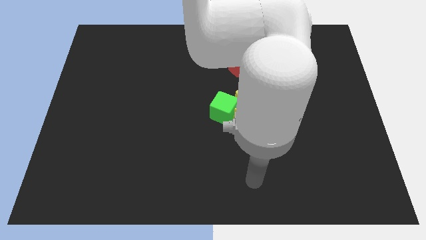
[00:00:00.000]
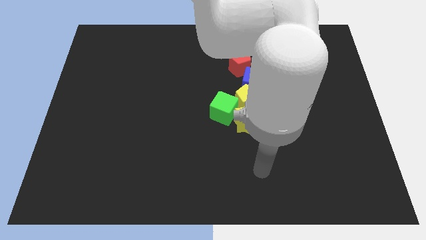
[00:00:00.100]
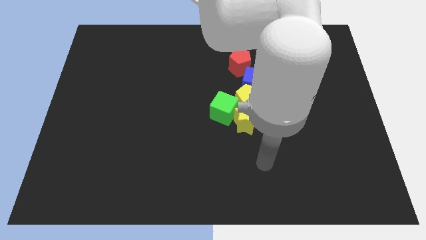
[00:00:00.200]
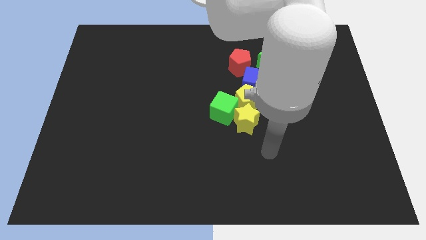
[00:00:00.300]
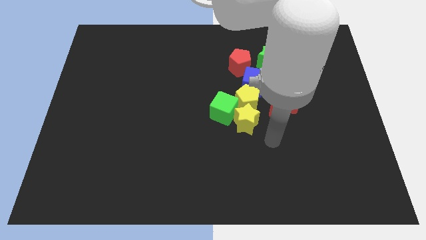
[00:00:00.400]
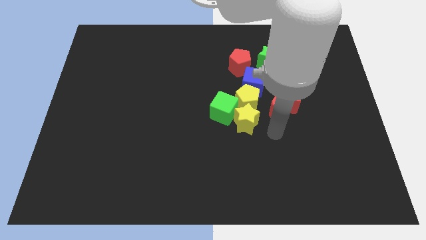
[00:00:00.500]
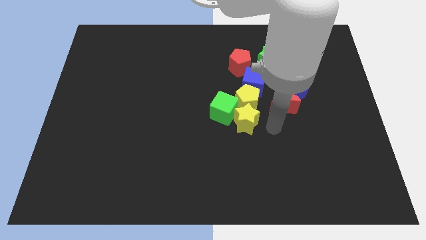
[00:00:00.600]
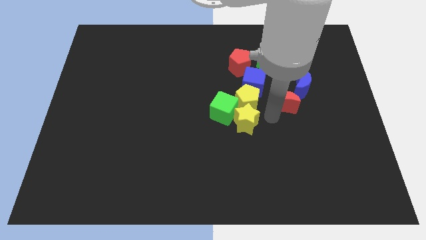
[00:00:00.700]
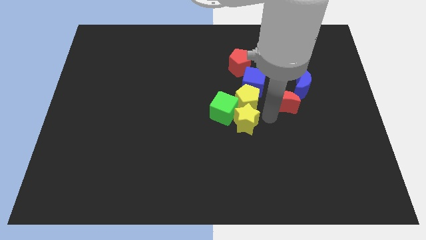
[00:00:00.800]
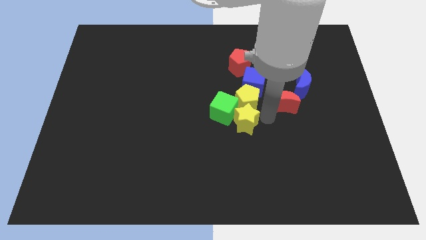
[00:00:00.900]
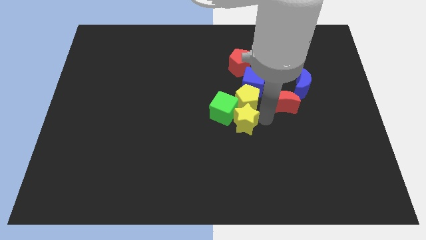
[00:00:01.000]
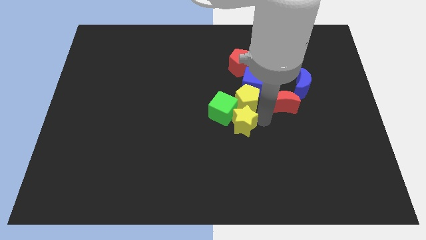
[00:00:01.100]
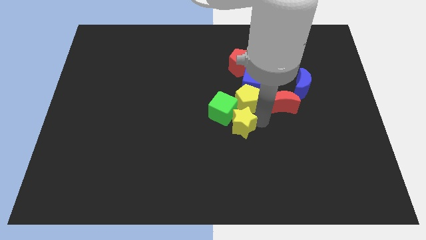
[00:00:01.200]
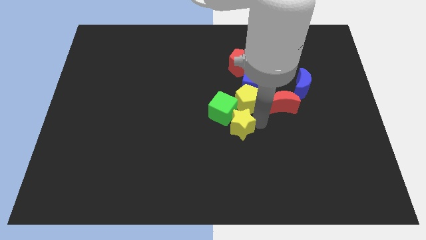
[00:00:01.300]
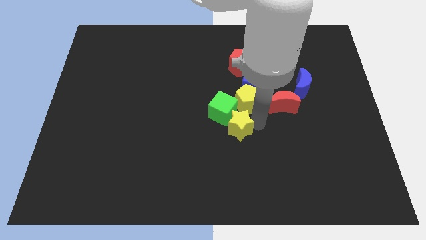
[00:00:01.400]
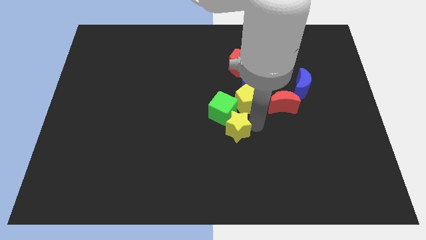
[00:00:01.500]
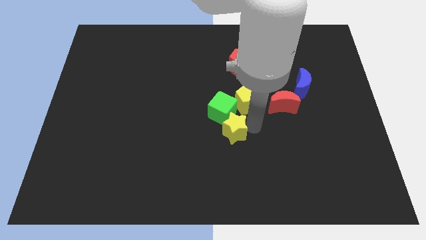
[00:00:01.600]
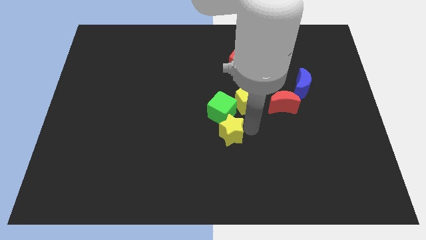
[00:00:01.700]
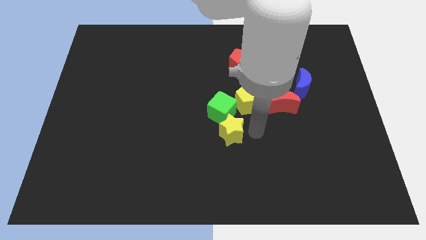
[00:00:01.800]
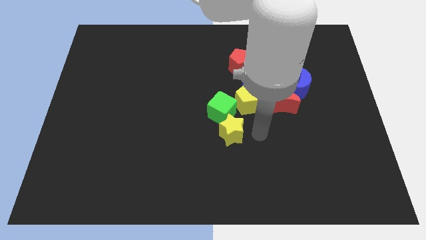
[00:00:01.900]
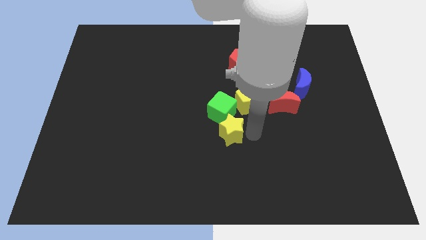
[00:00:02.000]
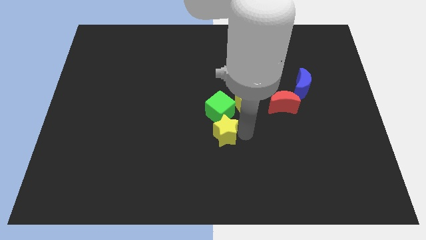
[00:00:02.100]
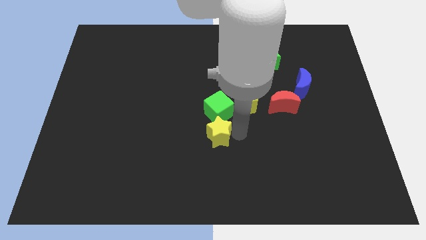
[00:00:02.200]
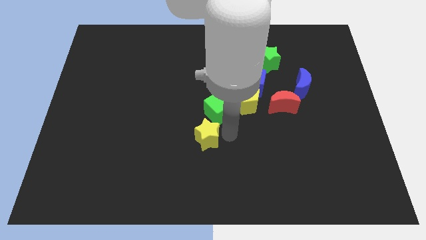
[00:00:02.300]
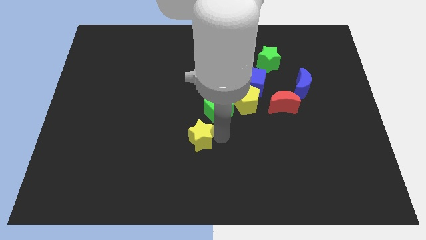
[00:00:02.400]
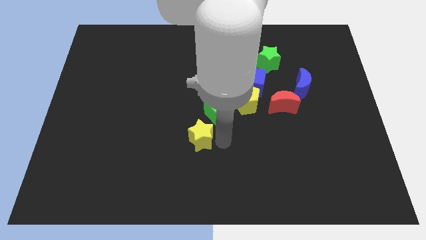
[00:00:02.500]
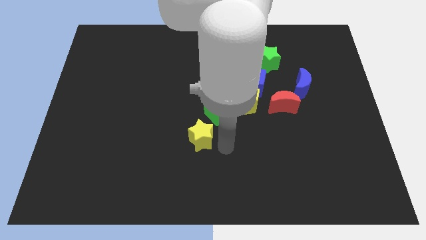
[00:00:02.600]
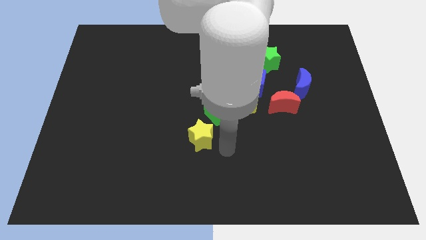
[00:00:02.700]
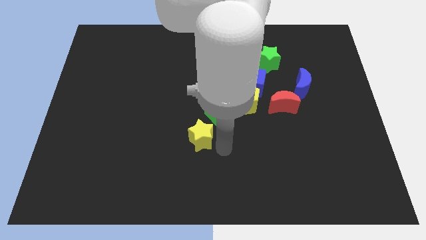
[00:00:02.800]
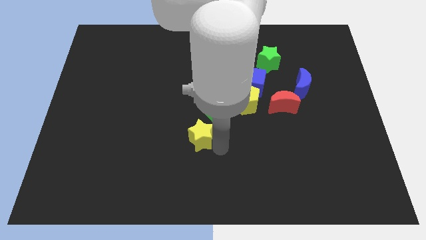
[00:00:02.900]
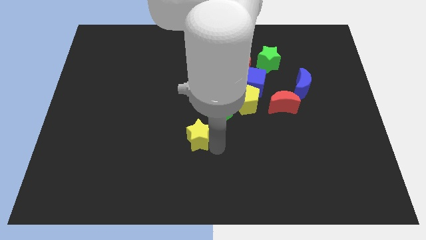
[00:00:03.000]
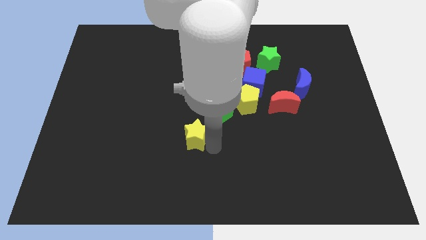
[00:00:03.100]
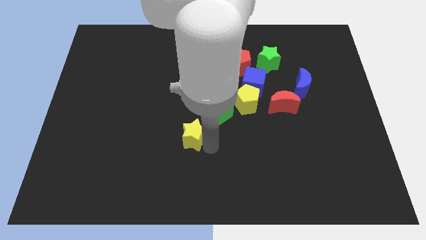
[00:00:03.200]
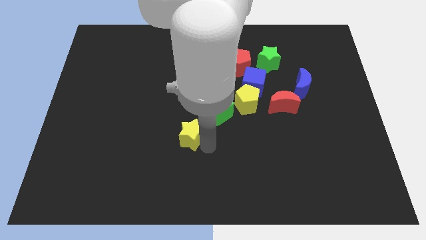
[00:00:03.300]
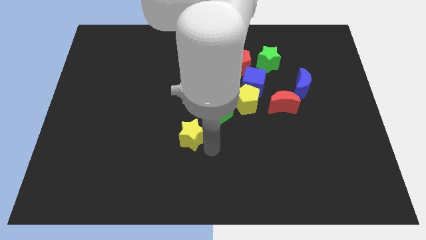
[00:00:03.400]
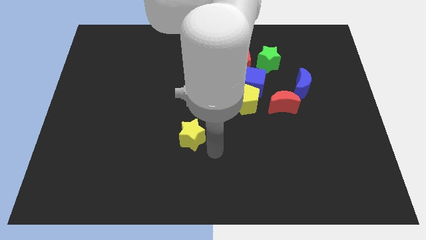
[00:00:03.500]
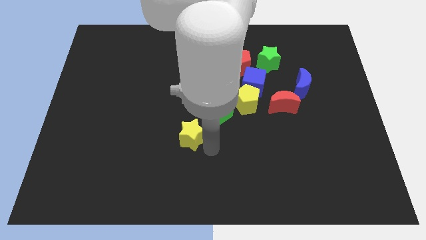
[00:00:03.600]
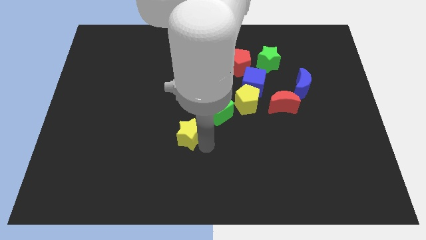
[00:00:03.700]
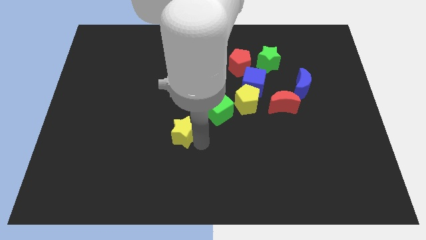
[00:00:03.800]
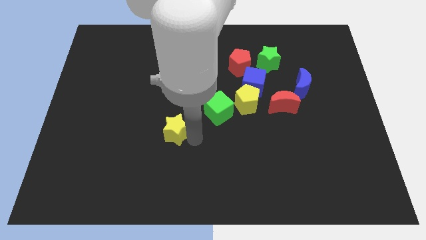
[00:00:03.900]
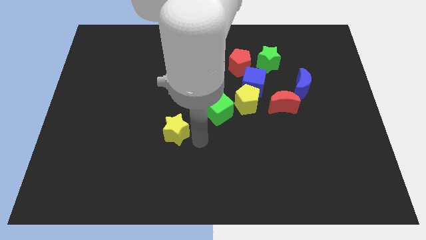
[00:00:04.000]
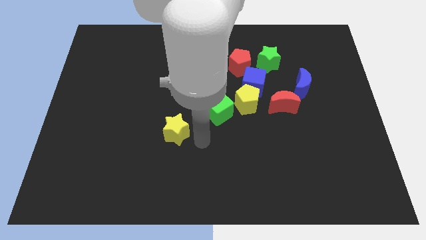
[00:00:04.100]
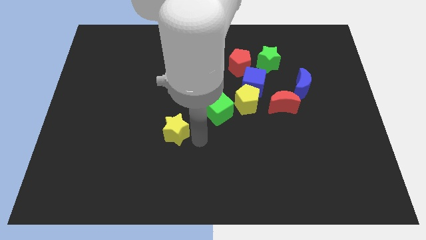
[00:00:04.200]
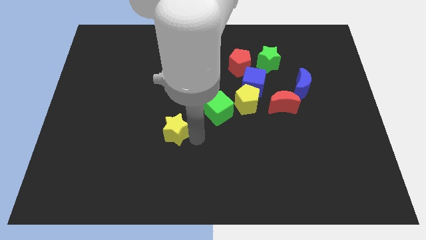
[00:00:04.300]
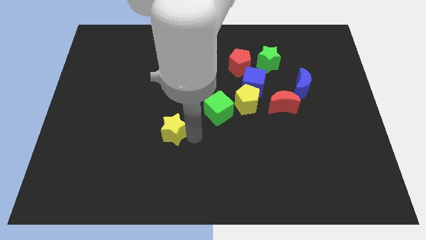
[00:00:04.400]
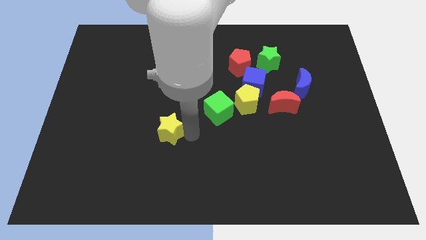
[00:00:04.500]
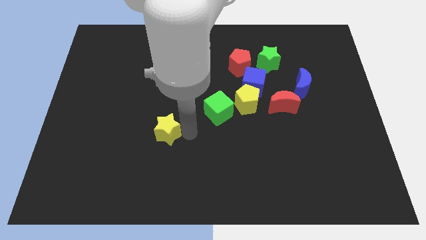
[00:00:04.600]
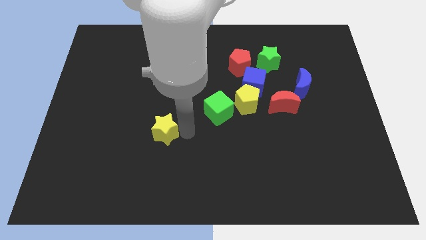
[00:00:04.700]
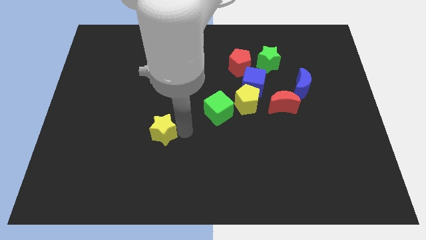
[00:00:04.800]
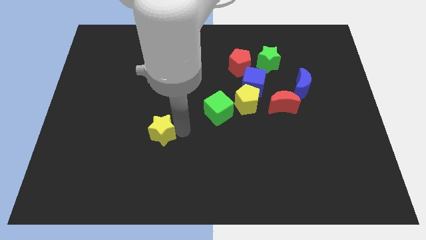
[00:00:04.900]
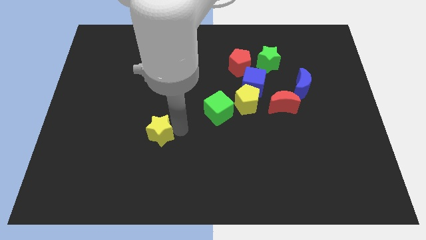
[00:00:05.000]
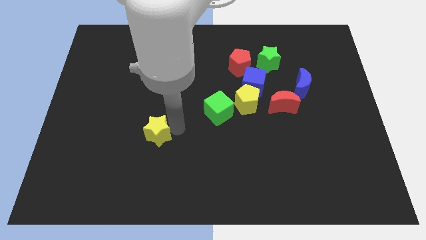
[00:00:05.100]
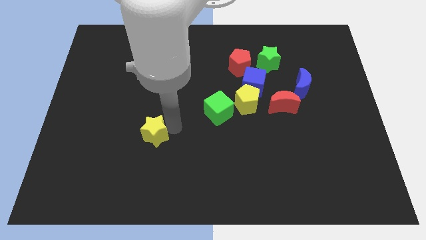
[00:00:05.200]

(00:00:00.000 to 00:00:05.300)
slide the yellow star left

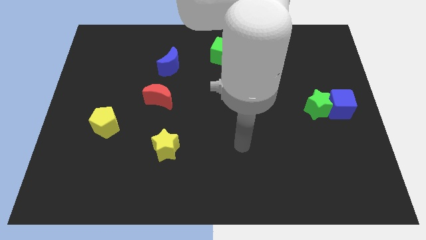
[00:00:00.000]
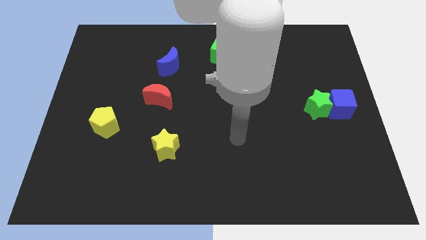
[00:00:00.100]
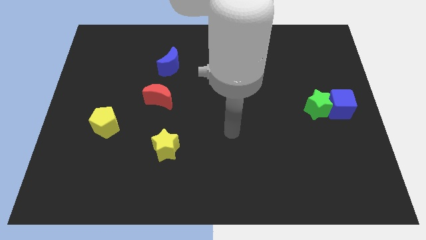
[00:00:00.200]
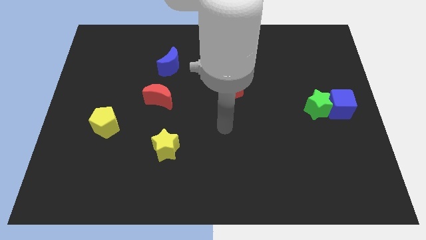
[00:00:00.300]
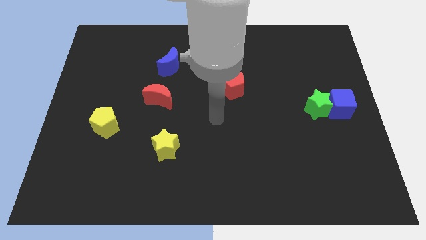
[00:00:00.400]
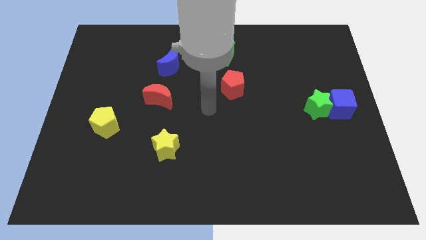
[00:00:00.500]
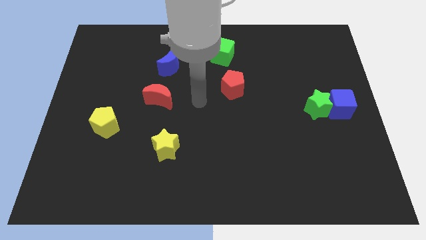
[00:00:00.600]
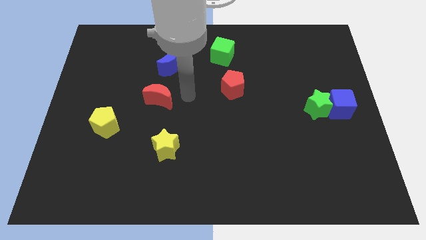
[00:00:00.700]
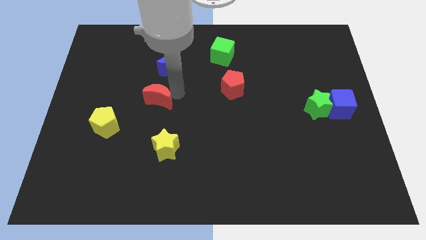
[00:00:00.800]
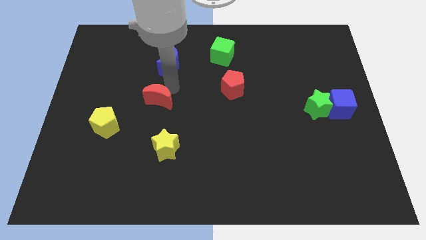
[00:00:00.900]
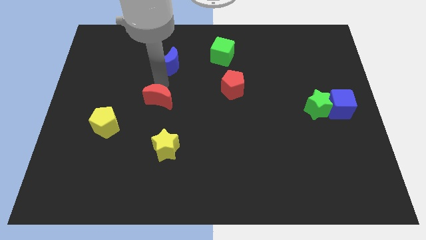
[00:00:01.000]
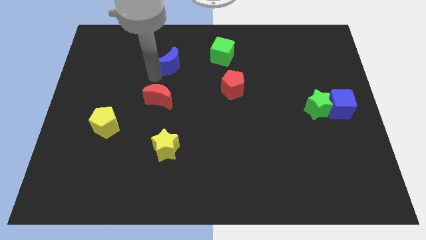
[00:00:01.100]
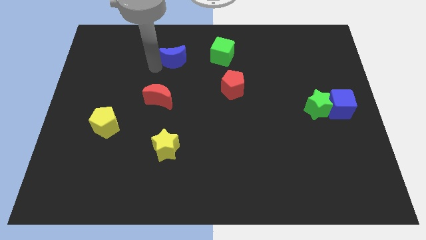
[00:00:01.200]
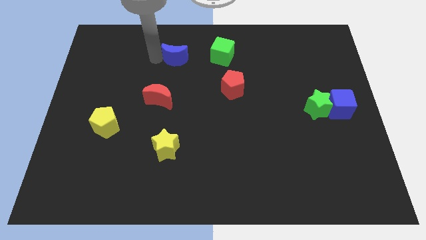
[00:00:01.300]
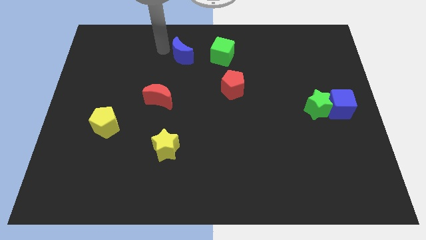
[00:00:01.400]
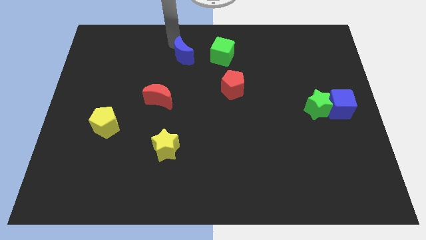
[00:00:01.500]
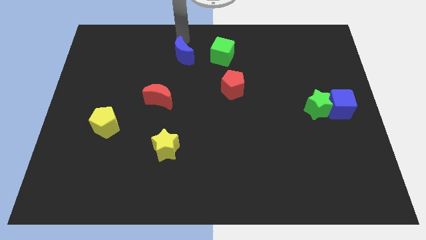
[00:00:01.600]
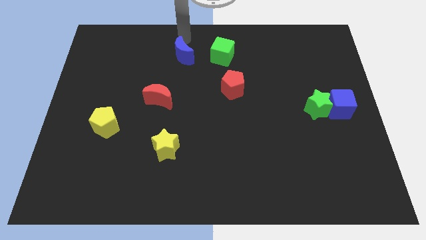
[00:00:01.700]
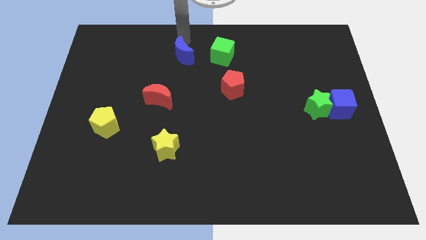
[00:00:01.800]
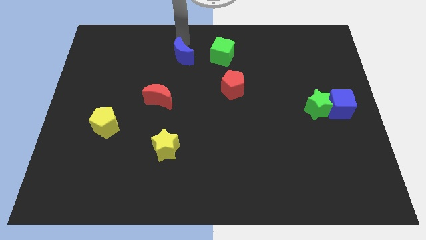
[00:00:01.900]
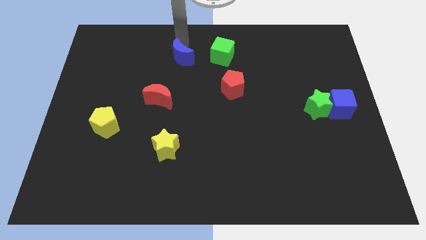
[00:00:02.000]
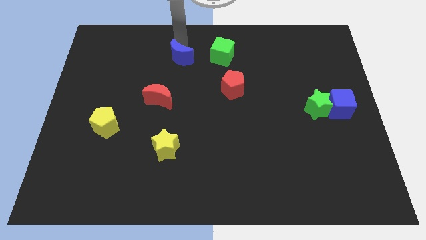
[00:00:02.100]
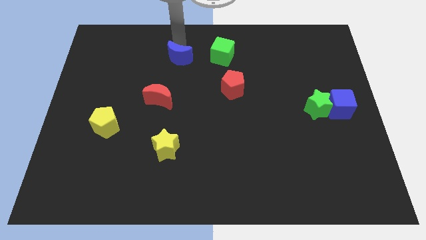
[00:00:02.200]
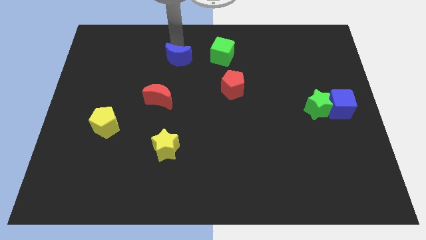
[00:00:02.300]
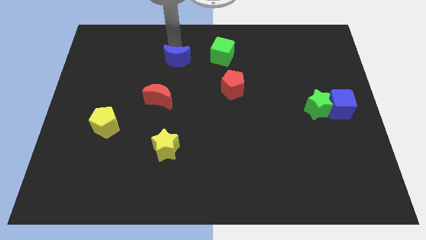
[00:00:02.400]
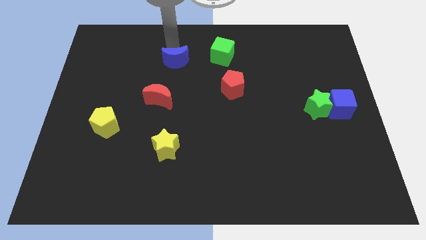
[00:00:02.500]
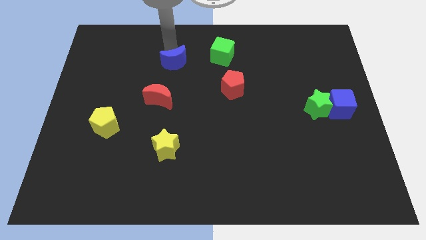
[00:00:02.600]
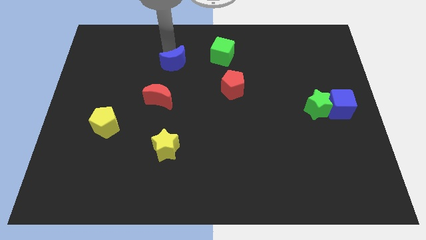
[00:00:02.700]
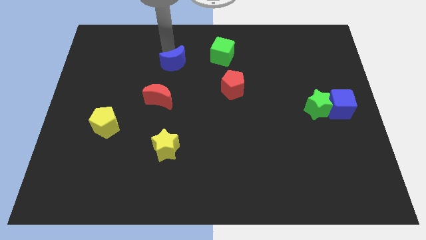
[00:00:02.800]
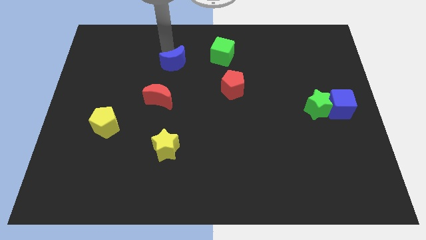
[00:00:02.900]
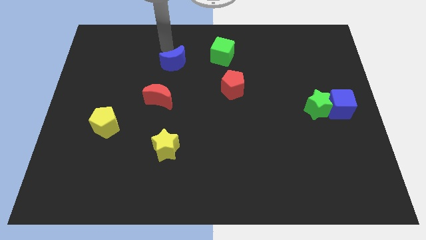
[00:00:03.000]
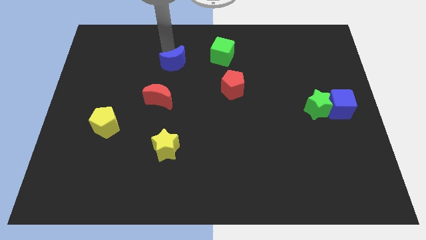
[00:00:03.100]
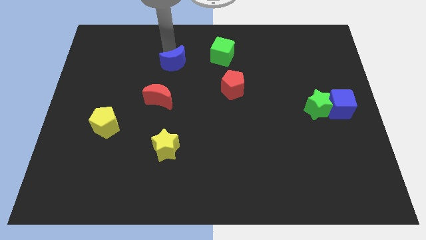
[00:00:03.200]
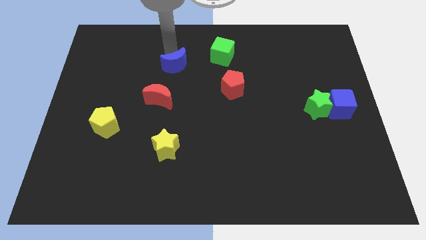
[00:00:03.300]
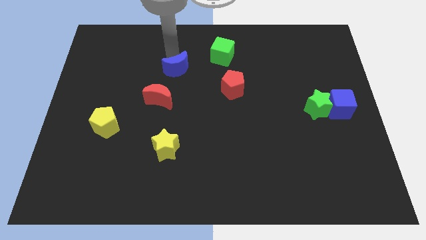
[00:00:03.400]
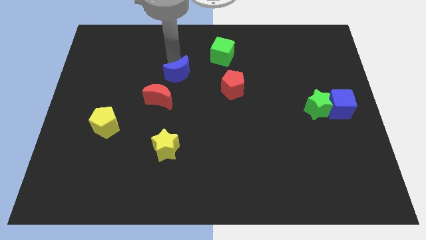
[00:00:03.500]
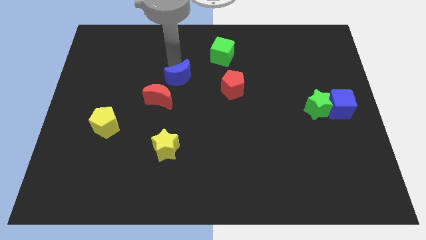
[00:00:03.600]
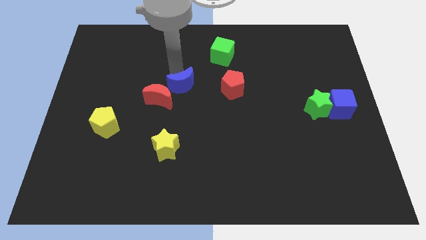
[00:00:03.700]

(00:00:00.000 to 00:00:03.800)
push the blue moon a little diagonally downwards and to the right
